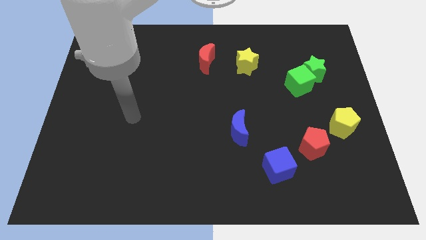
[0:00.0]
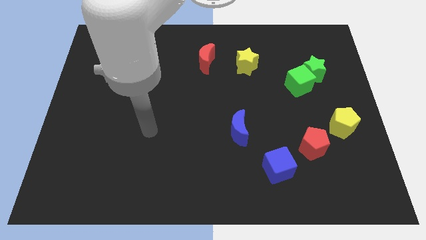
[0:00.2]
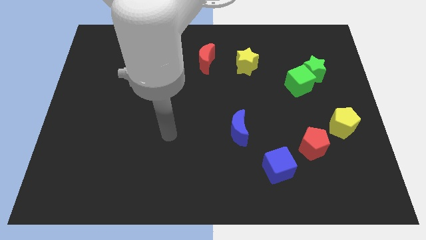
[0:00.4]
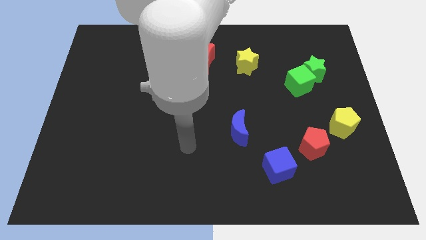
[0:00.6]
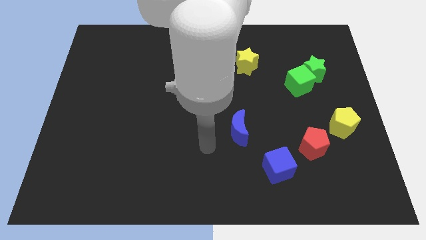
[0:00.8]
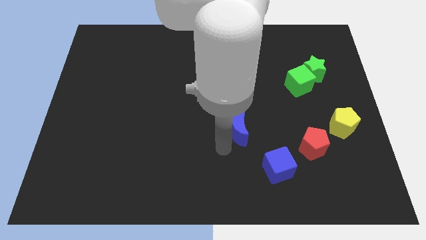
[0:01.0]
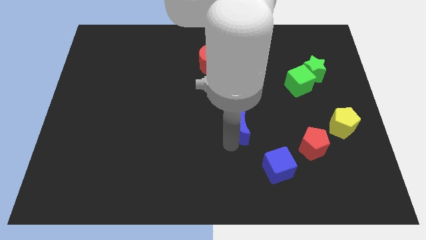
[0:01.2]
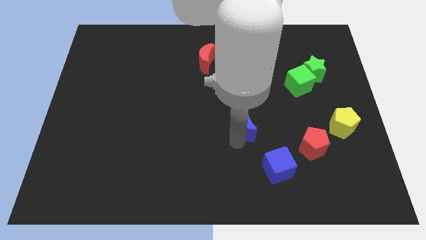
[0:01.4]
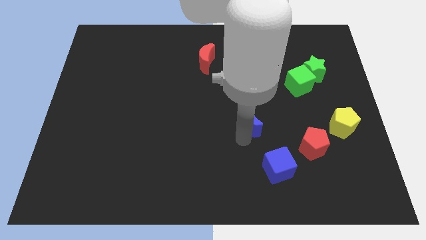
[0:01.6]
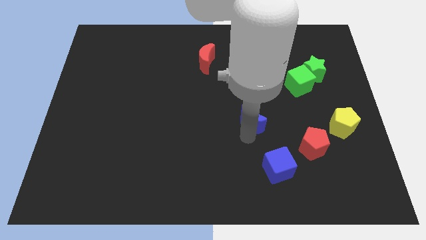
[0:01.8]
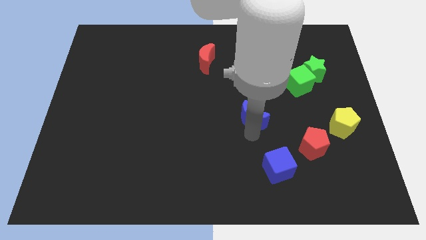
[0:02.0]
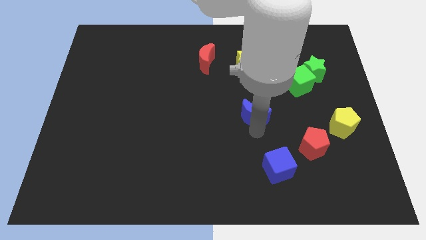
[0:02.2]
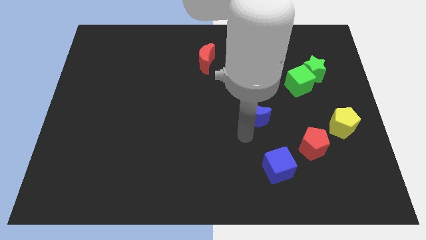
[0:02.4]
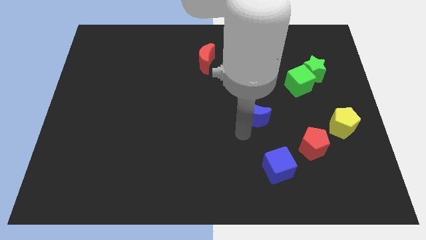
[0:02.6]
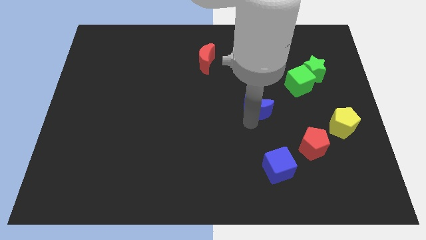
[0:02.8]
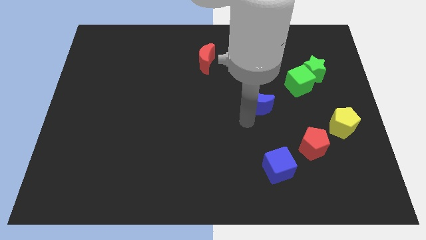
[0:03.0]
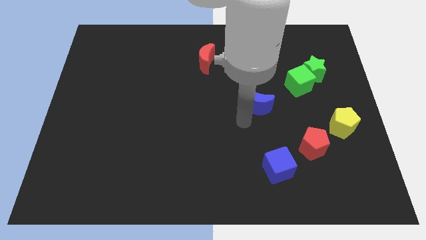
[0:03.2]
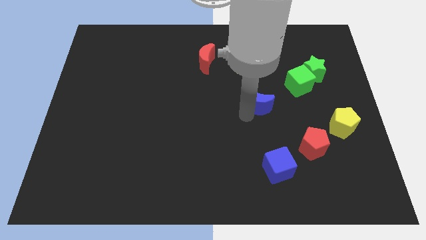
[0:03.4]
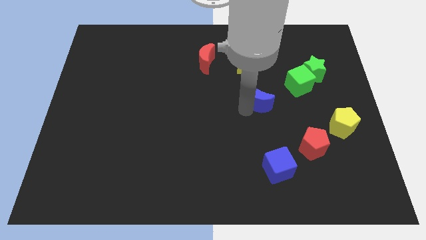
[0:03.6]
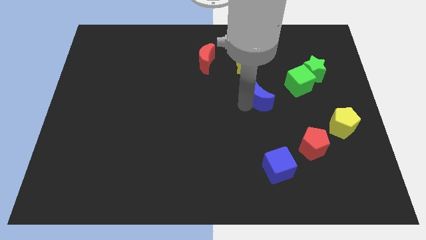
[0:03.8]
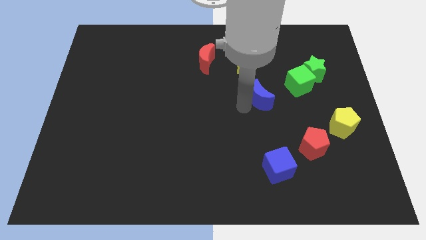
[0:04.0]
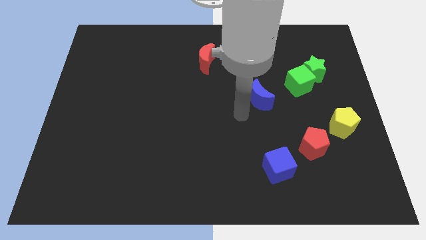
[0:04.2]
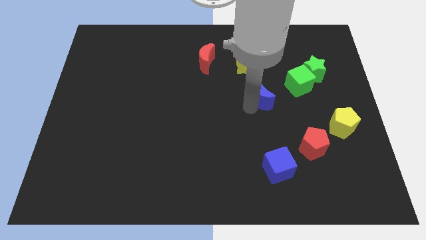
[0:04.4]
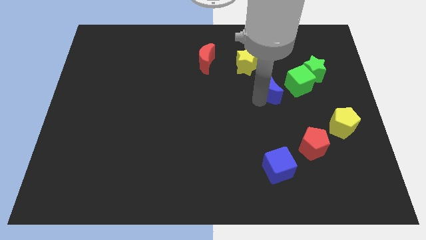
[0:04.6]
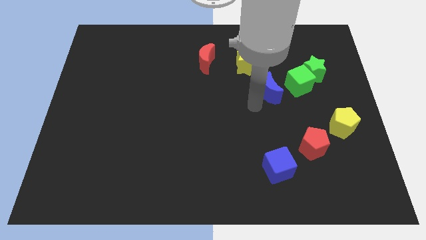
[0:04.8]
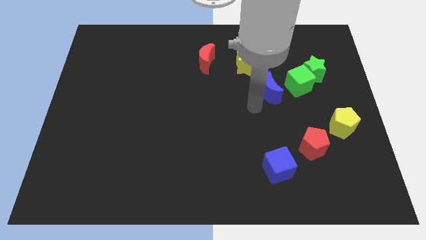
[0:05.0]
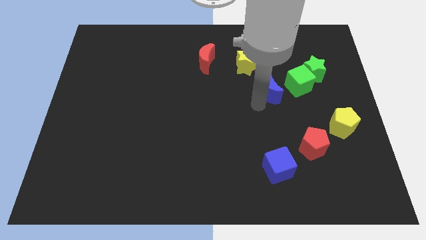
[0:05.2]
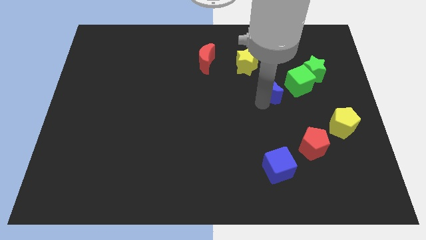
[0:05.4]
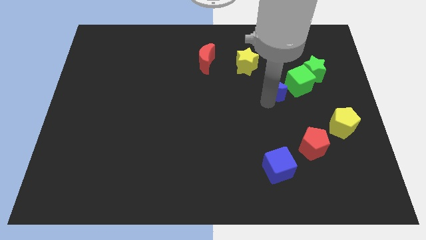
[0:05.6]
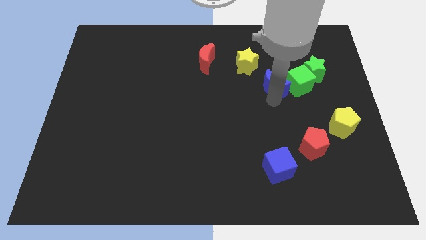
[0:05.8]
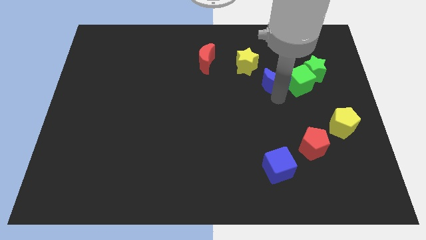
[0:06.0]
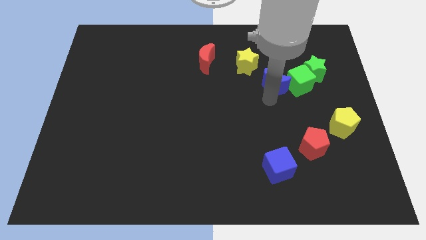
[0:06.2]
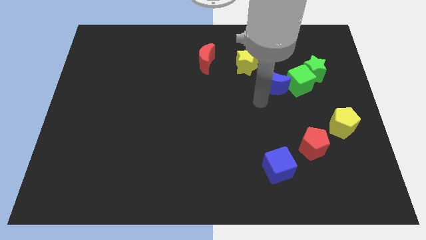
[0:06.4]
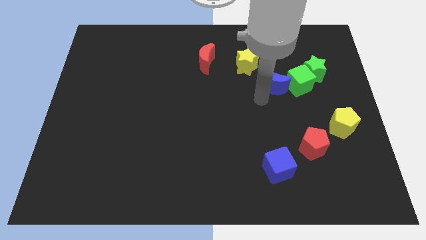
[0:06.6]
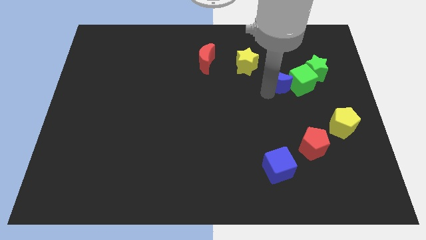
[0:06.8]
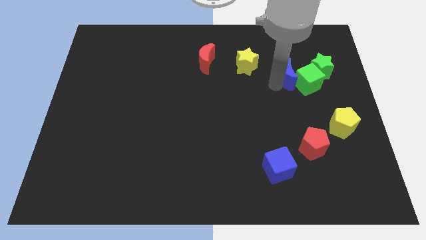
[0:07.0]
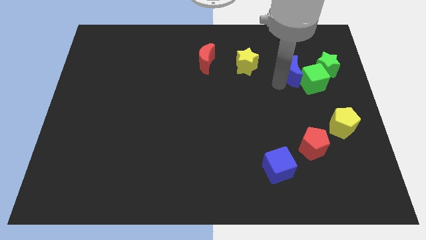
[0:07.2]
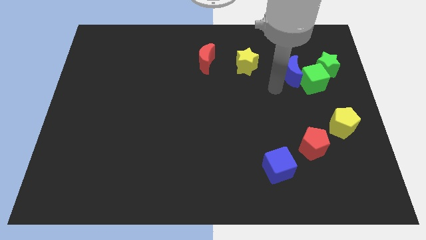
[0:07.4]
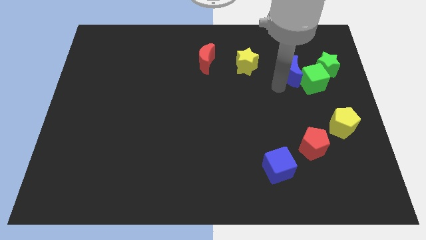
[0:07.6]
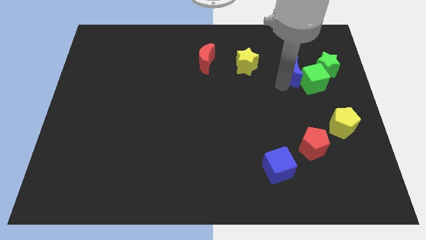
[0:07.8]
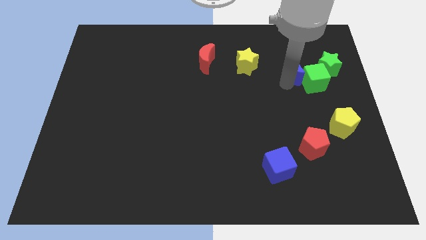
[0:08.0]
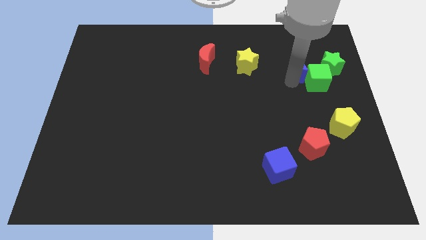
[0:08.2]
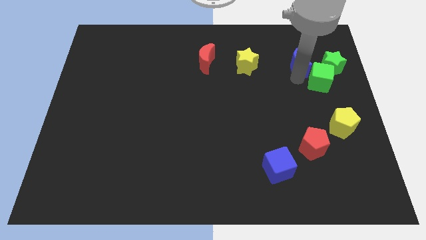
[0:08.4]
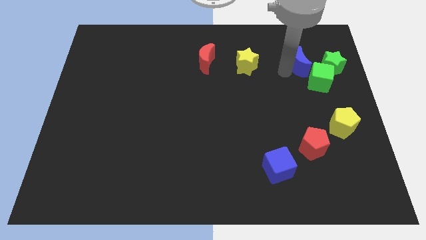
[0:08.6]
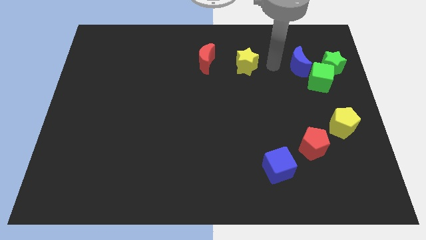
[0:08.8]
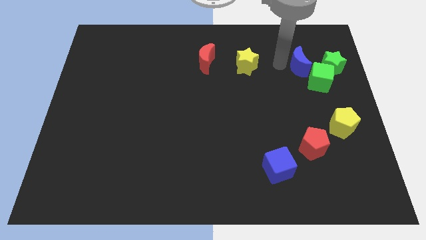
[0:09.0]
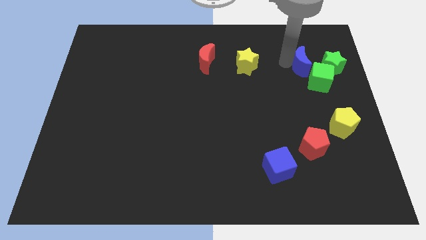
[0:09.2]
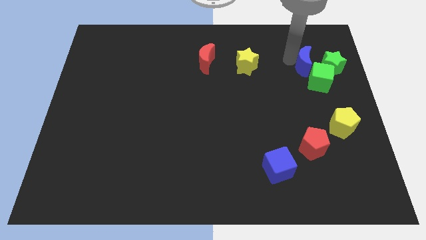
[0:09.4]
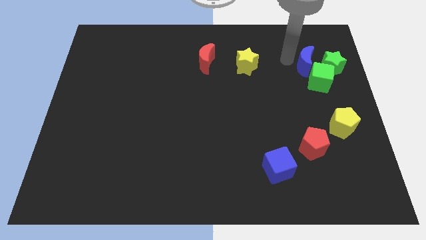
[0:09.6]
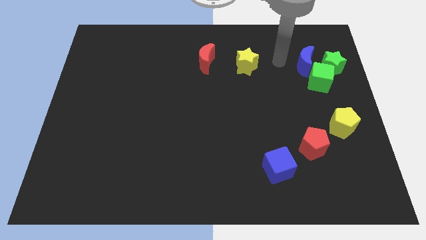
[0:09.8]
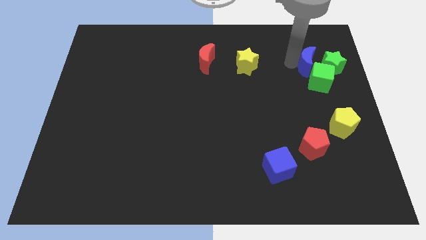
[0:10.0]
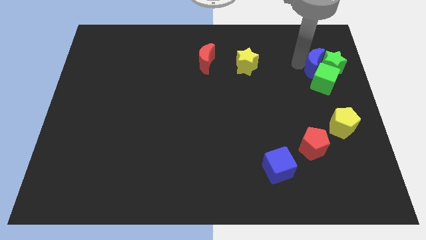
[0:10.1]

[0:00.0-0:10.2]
push the blue moon next to the green star

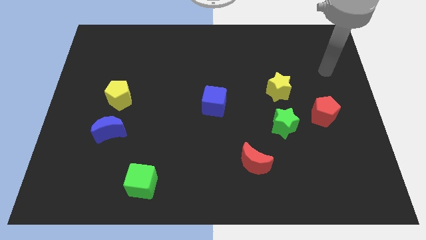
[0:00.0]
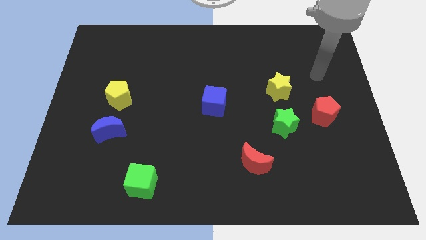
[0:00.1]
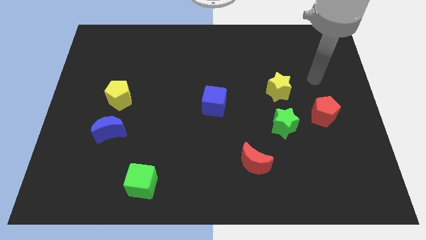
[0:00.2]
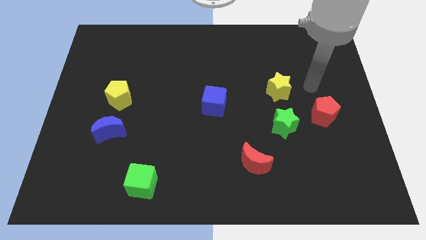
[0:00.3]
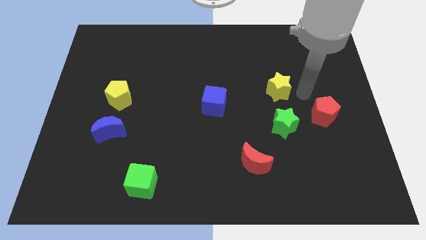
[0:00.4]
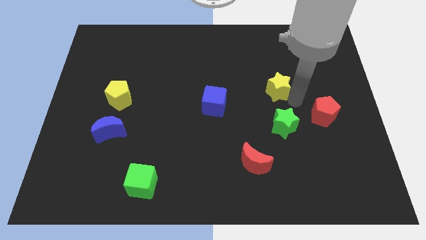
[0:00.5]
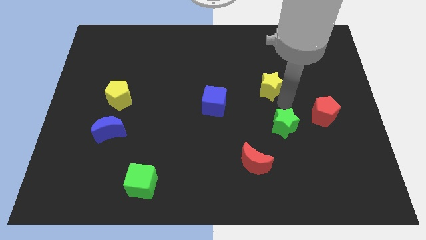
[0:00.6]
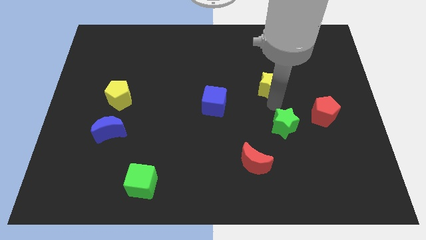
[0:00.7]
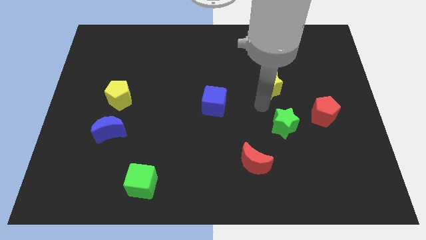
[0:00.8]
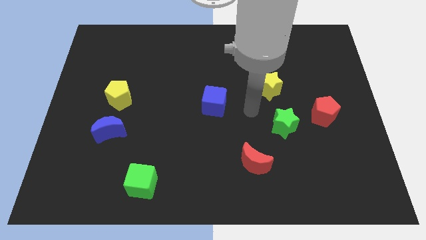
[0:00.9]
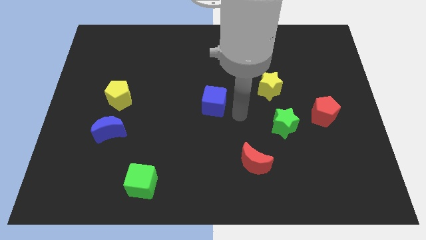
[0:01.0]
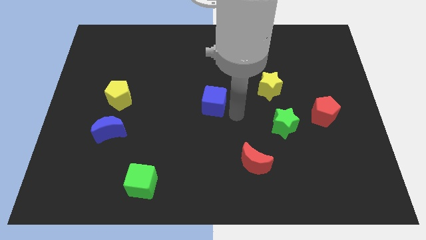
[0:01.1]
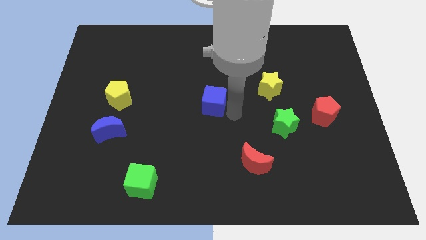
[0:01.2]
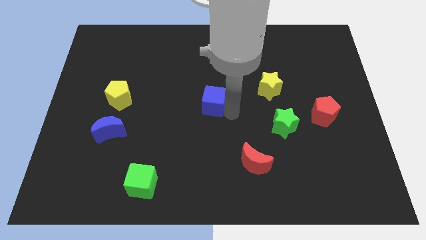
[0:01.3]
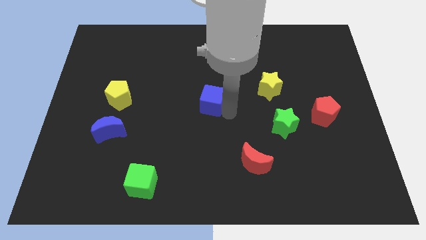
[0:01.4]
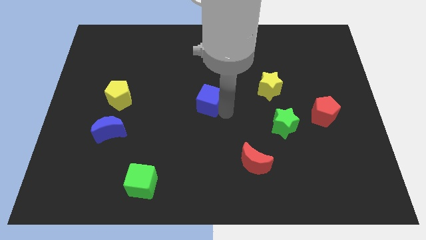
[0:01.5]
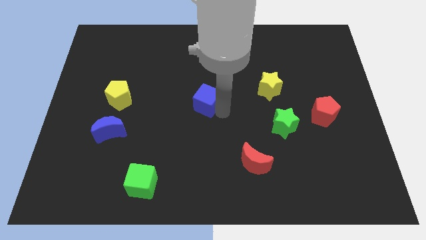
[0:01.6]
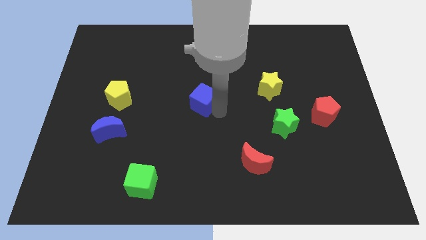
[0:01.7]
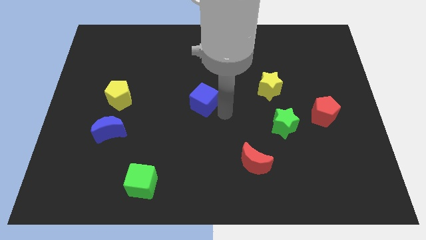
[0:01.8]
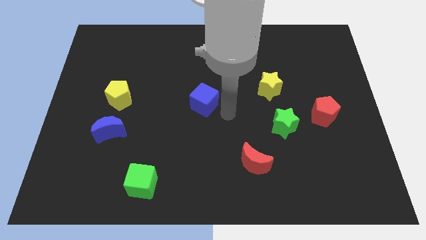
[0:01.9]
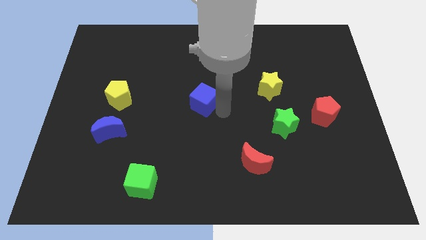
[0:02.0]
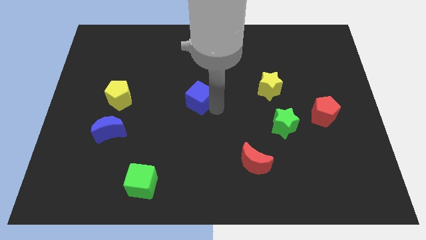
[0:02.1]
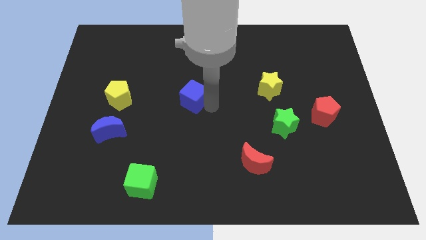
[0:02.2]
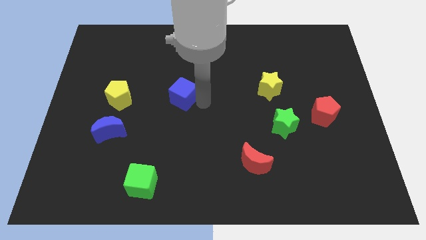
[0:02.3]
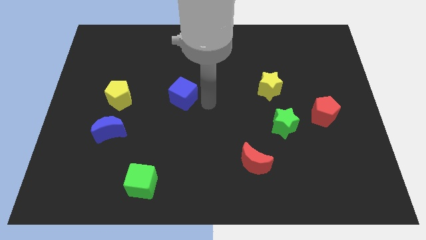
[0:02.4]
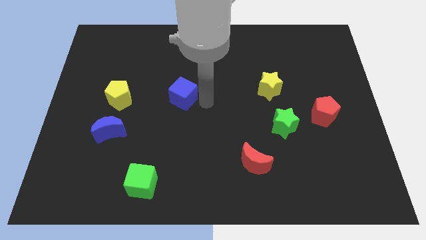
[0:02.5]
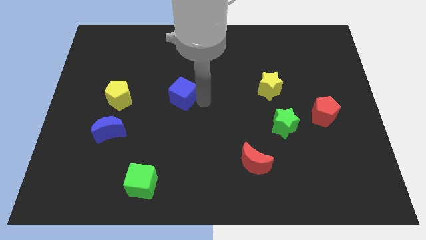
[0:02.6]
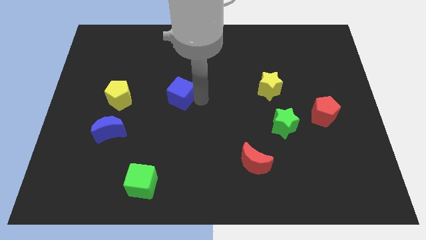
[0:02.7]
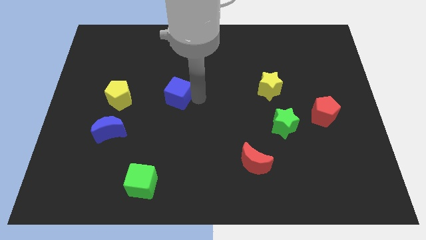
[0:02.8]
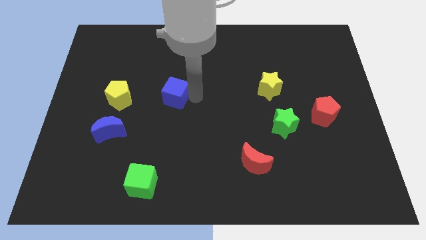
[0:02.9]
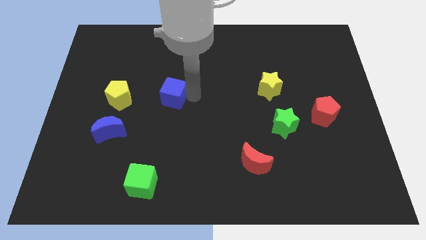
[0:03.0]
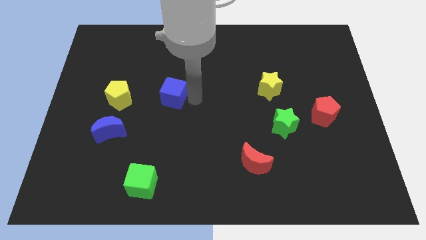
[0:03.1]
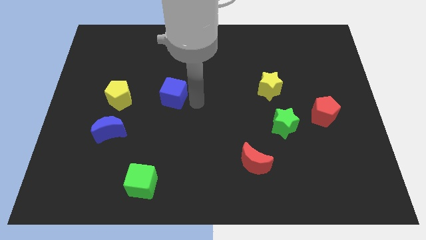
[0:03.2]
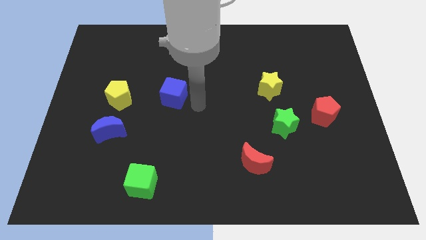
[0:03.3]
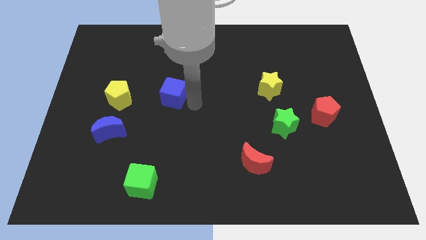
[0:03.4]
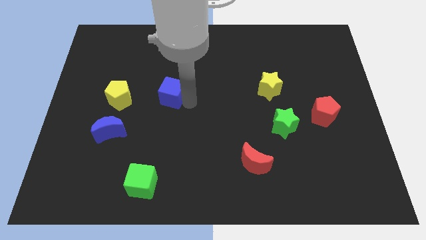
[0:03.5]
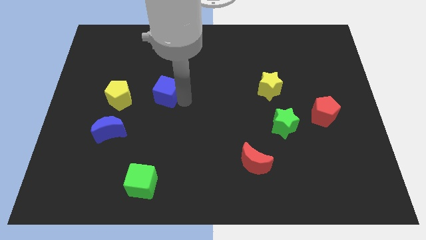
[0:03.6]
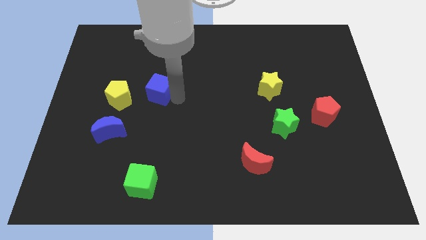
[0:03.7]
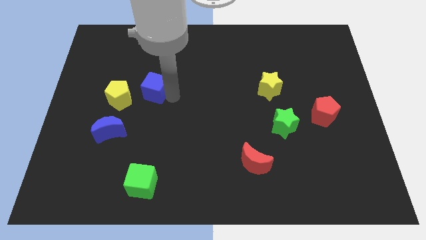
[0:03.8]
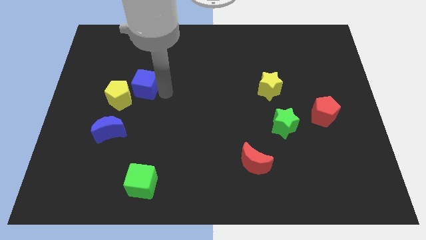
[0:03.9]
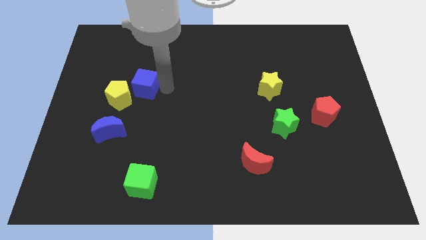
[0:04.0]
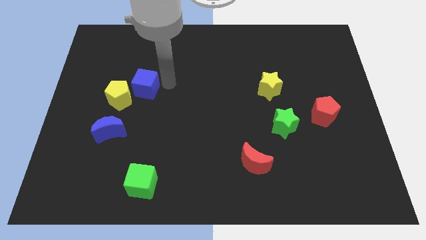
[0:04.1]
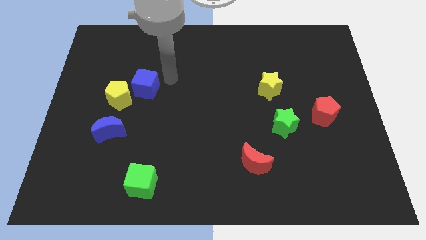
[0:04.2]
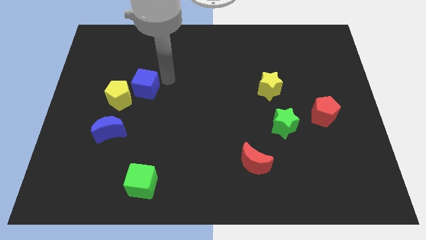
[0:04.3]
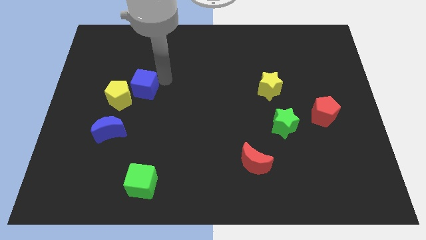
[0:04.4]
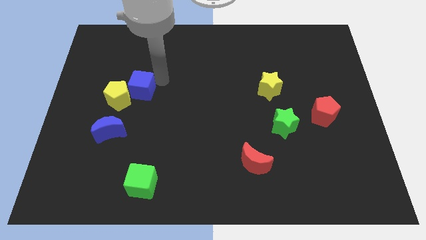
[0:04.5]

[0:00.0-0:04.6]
push the blue cube to the yellow pentagon
